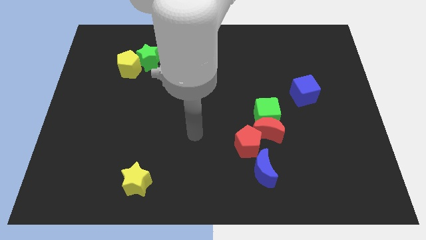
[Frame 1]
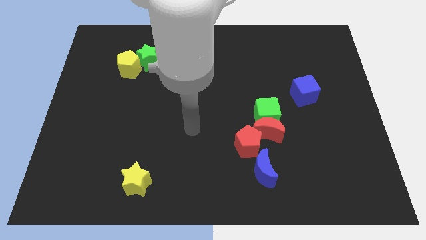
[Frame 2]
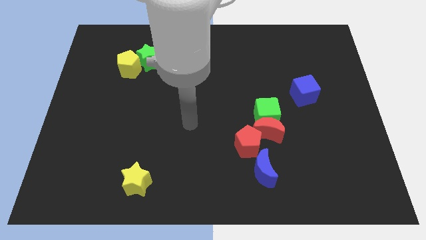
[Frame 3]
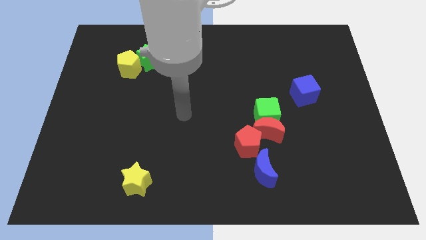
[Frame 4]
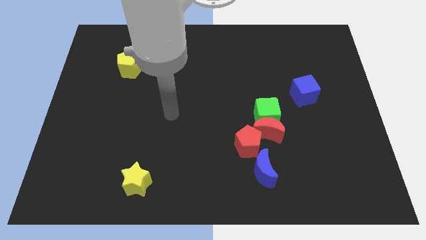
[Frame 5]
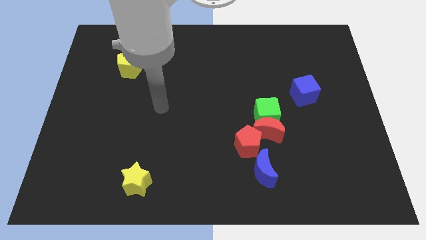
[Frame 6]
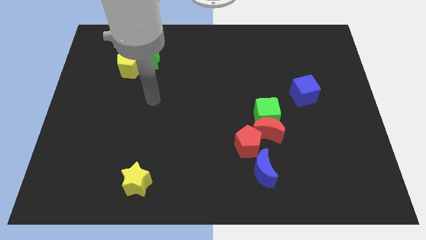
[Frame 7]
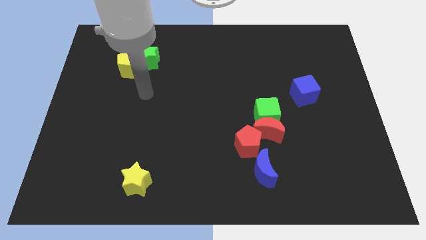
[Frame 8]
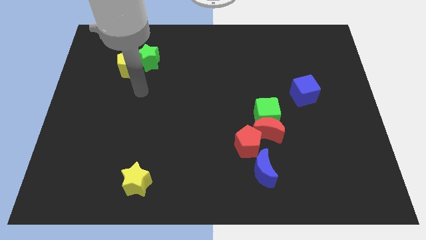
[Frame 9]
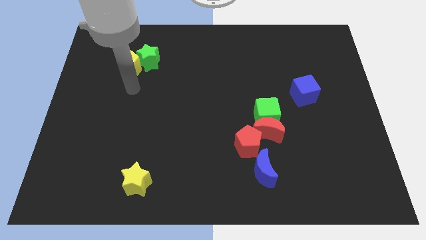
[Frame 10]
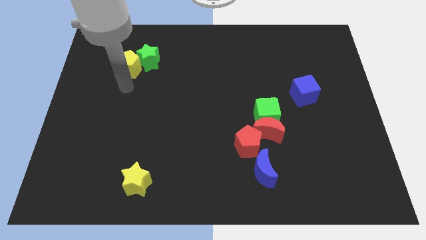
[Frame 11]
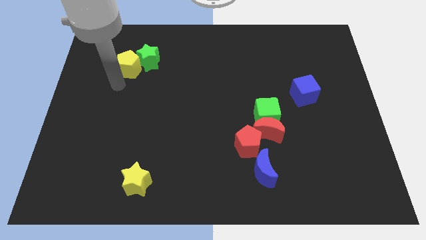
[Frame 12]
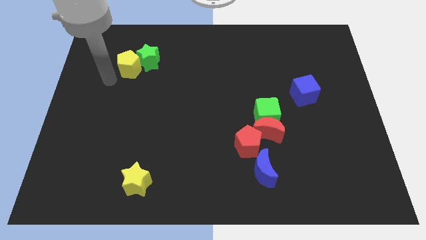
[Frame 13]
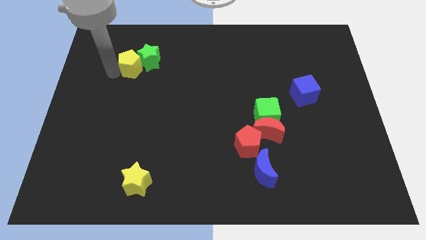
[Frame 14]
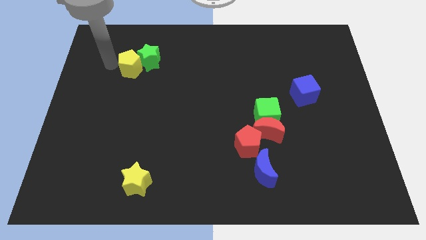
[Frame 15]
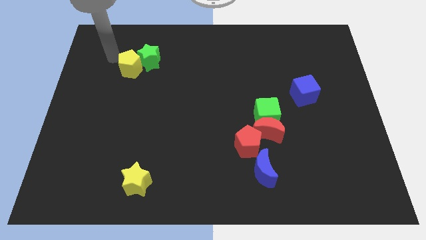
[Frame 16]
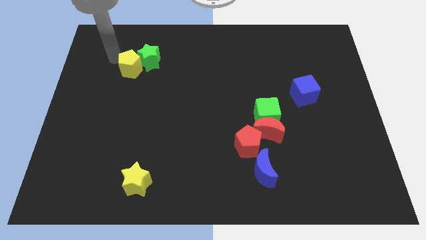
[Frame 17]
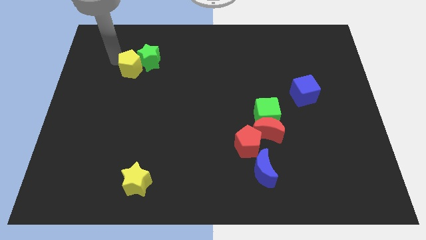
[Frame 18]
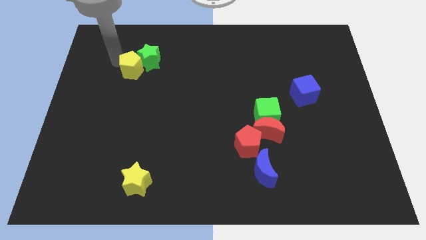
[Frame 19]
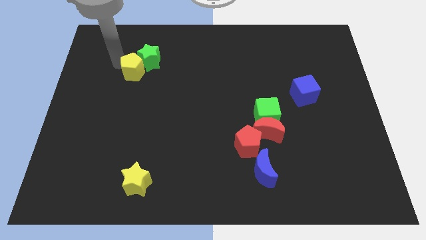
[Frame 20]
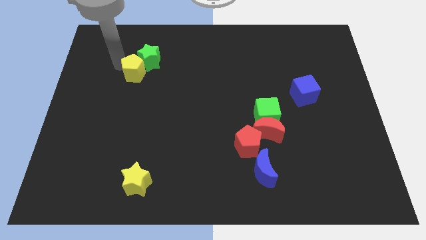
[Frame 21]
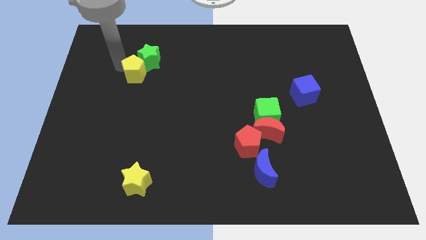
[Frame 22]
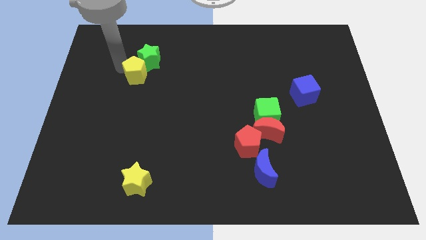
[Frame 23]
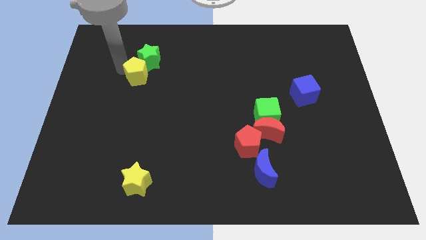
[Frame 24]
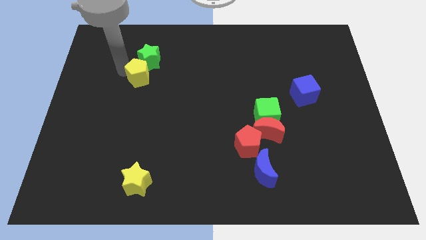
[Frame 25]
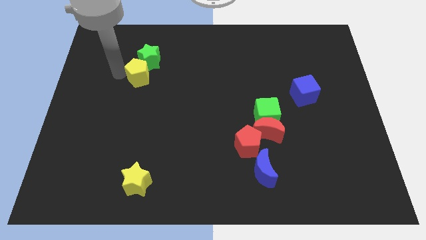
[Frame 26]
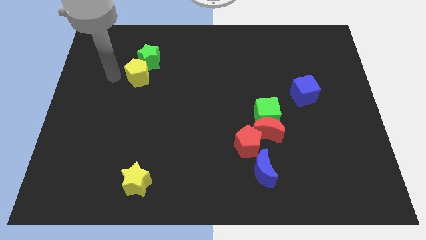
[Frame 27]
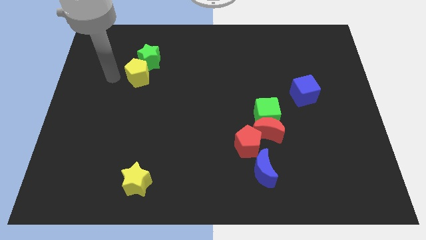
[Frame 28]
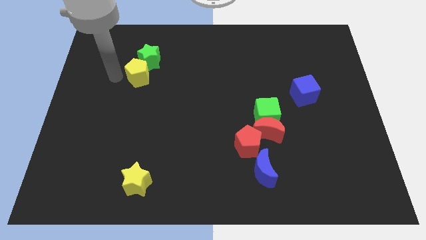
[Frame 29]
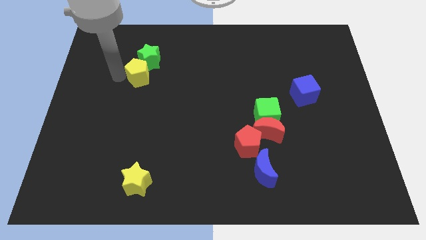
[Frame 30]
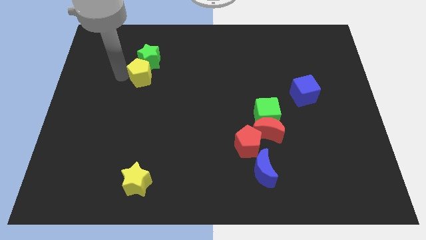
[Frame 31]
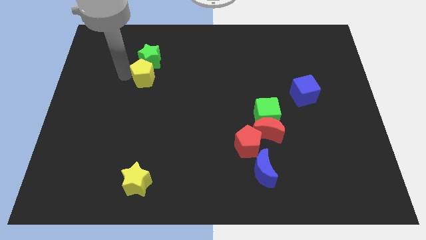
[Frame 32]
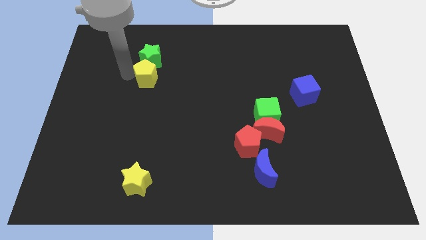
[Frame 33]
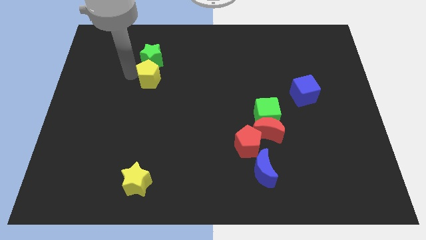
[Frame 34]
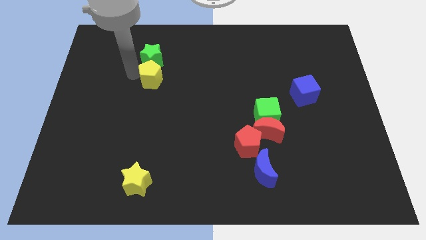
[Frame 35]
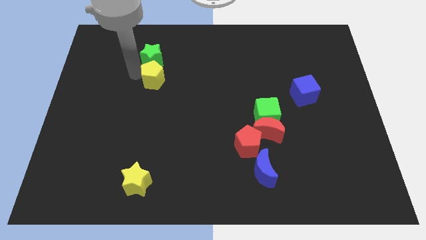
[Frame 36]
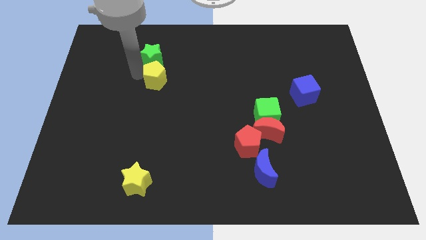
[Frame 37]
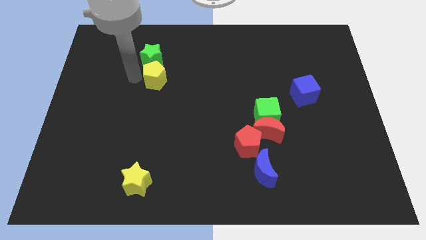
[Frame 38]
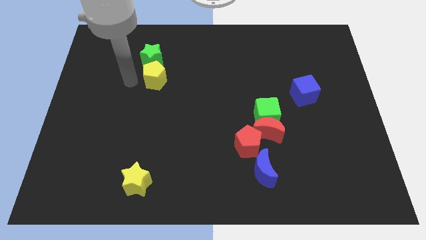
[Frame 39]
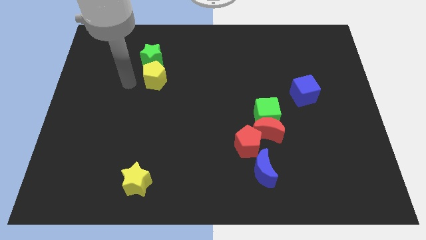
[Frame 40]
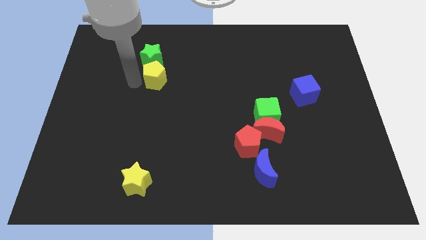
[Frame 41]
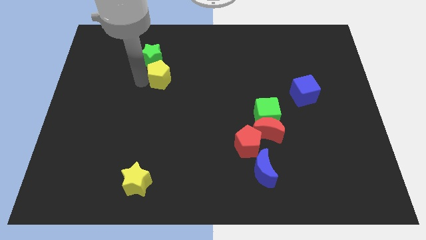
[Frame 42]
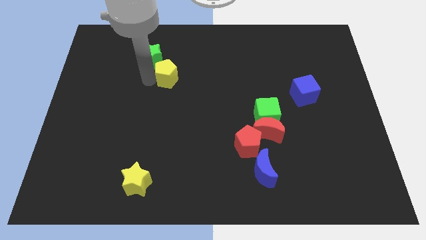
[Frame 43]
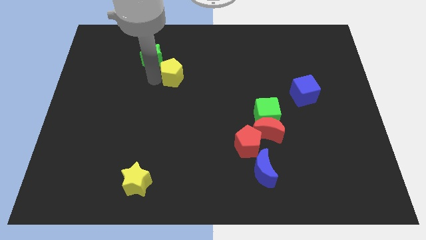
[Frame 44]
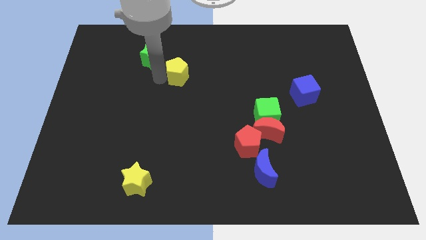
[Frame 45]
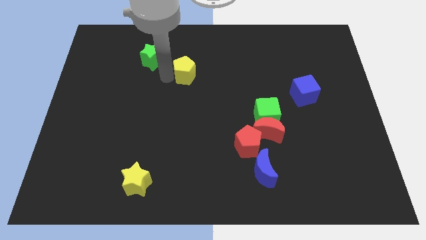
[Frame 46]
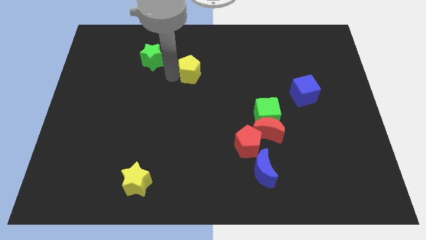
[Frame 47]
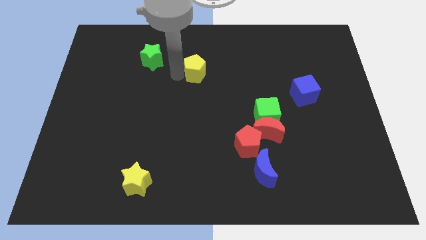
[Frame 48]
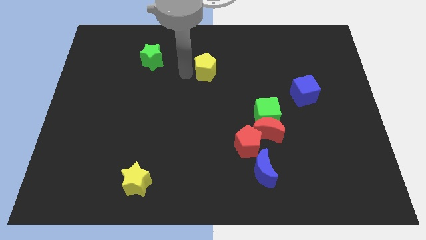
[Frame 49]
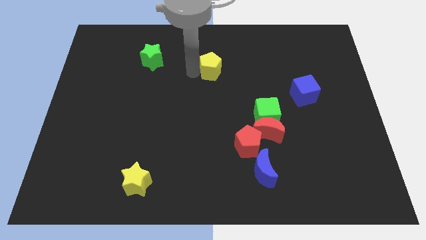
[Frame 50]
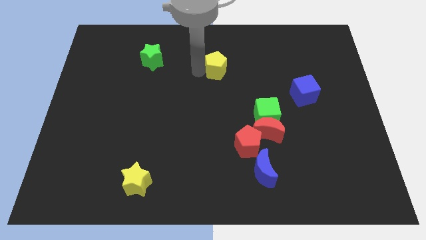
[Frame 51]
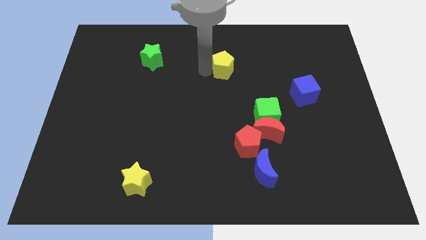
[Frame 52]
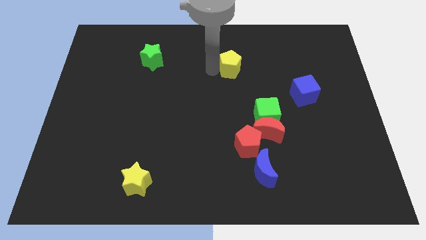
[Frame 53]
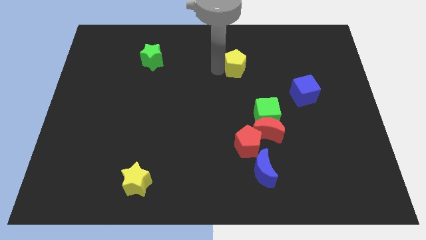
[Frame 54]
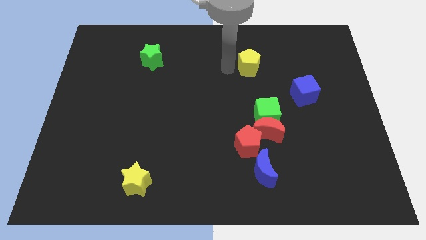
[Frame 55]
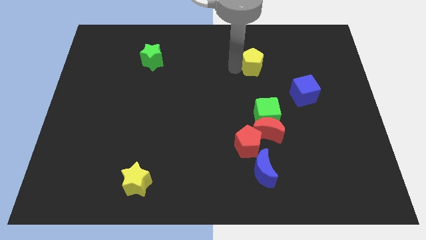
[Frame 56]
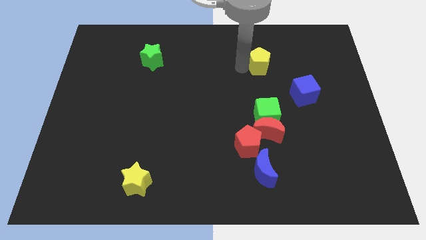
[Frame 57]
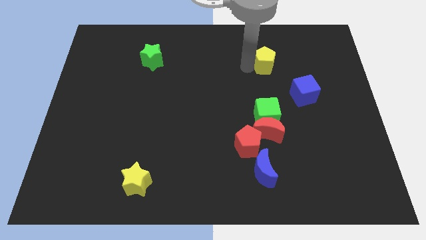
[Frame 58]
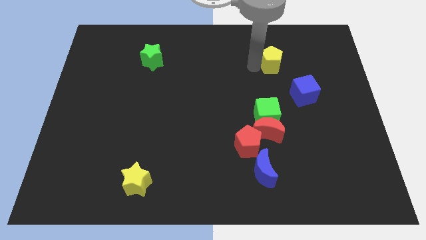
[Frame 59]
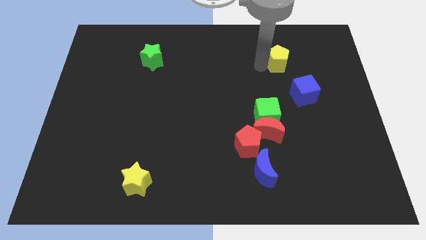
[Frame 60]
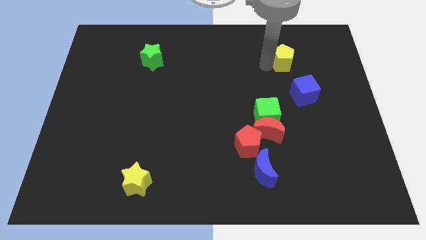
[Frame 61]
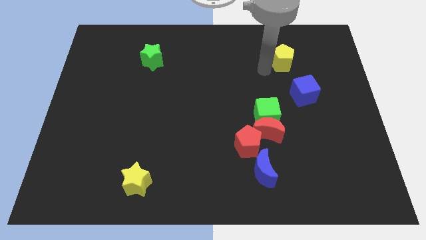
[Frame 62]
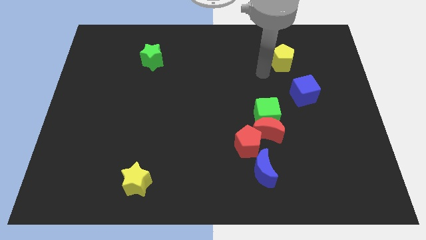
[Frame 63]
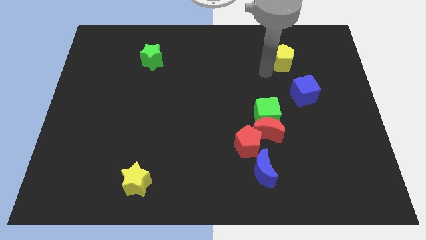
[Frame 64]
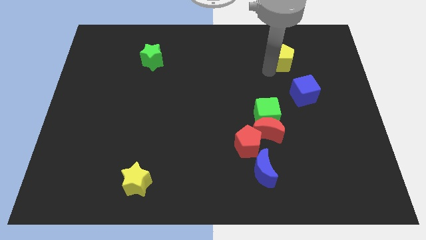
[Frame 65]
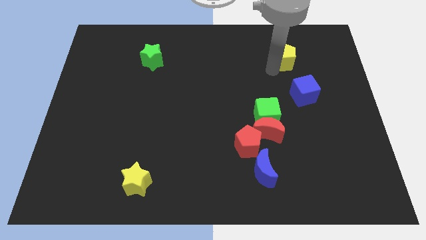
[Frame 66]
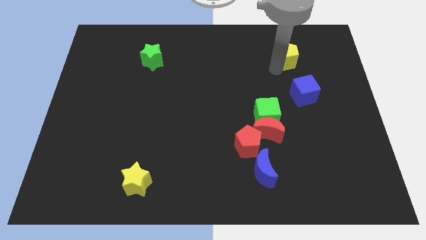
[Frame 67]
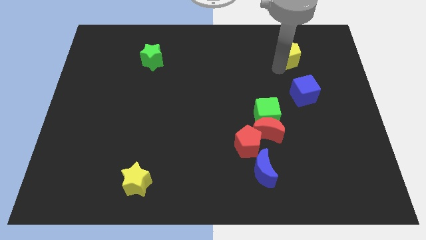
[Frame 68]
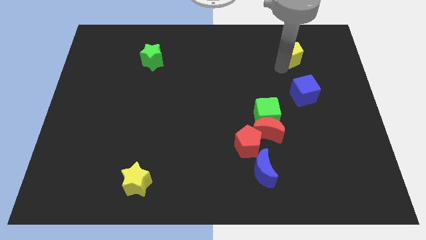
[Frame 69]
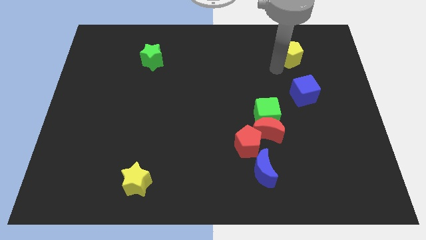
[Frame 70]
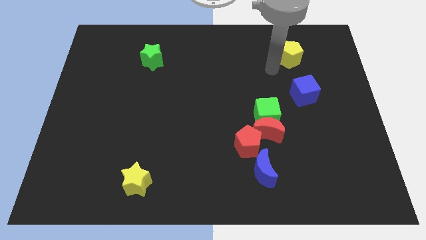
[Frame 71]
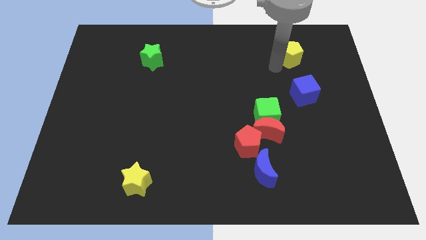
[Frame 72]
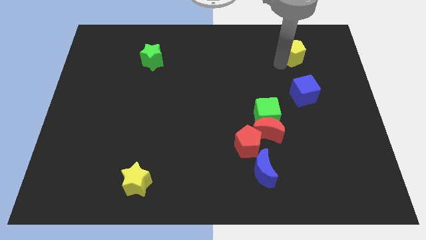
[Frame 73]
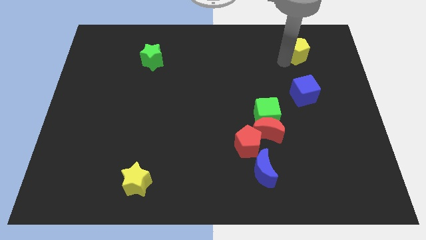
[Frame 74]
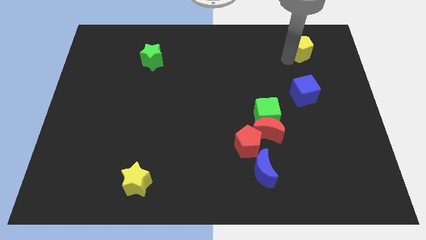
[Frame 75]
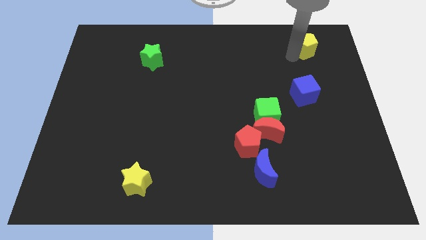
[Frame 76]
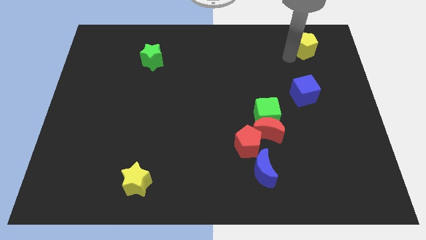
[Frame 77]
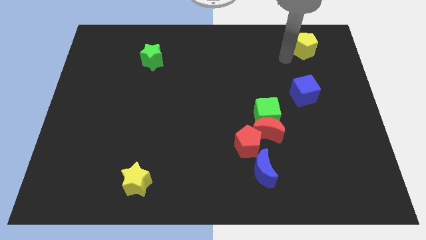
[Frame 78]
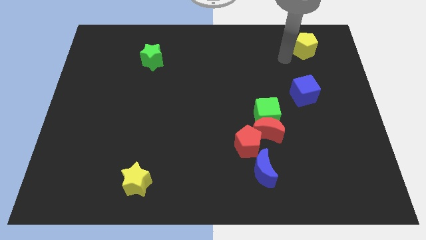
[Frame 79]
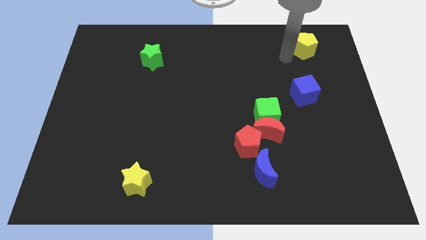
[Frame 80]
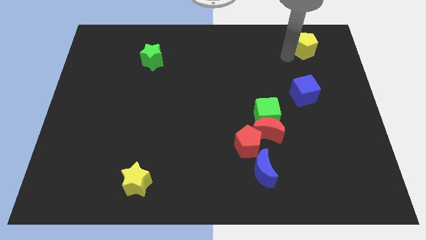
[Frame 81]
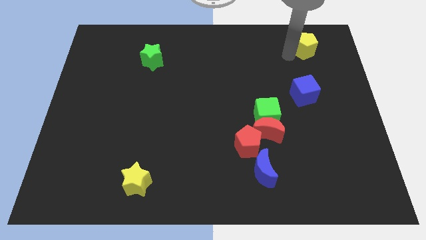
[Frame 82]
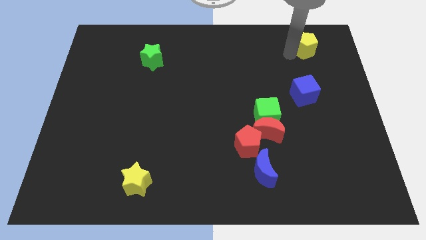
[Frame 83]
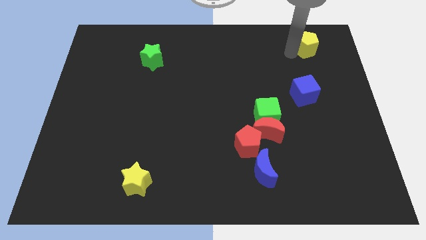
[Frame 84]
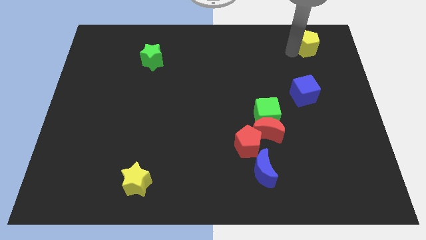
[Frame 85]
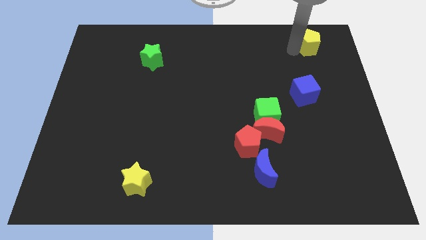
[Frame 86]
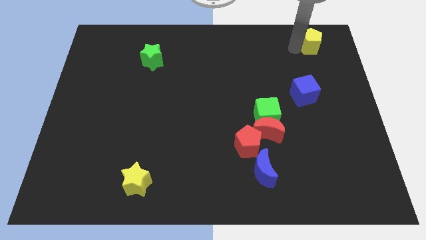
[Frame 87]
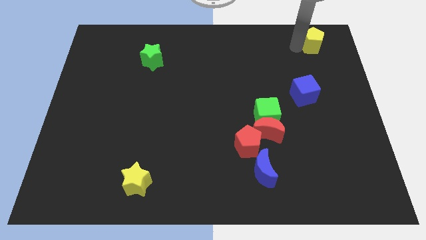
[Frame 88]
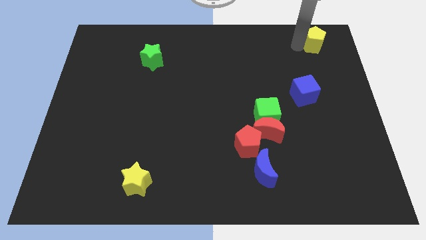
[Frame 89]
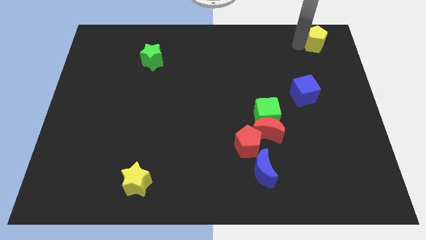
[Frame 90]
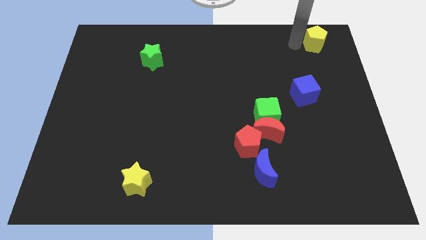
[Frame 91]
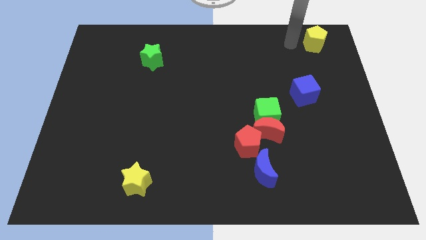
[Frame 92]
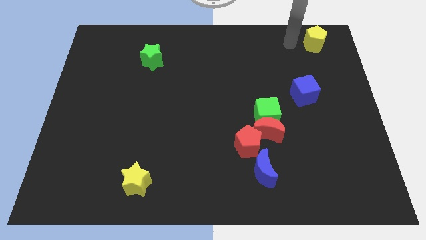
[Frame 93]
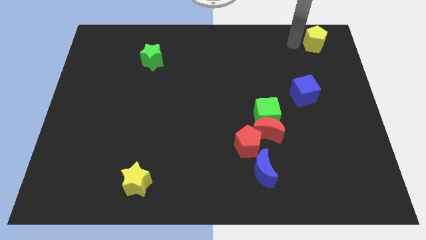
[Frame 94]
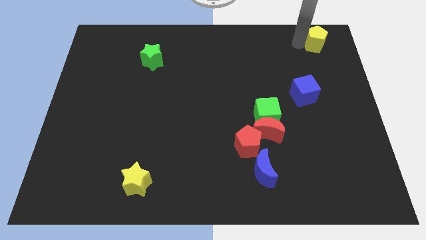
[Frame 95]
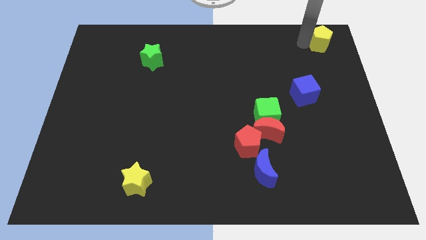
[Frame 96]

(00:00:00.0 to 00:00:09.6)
slide the yellow pentagon to the top right corner
